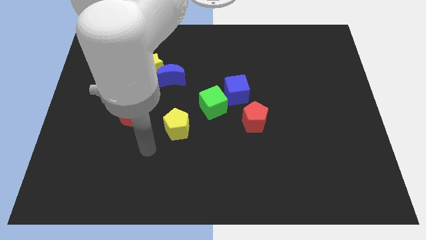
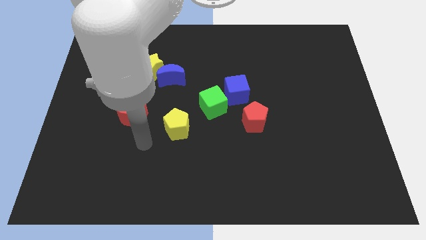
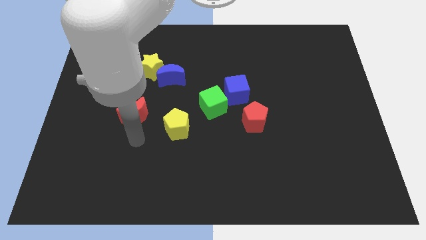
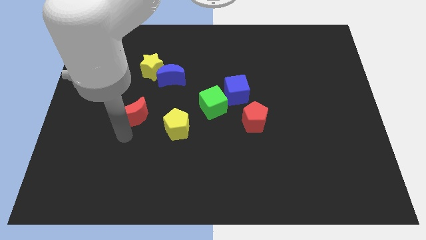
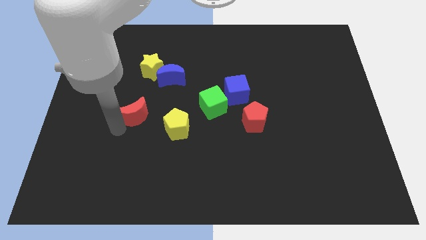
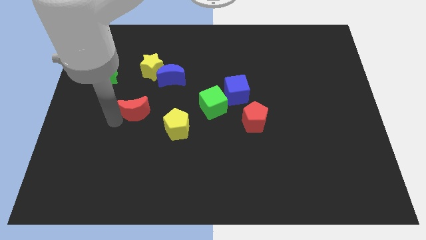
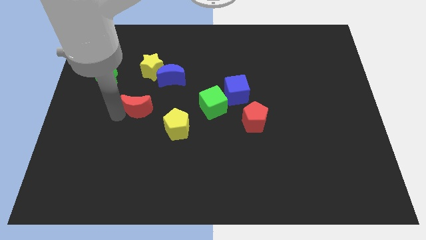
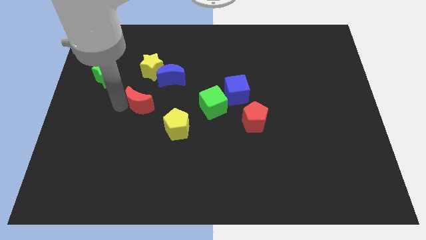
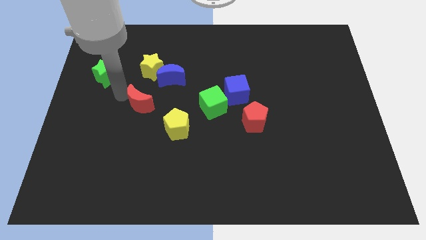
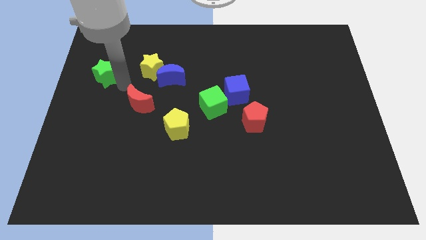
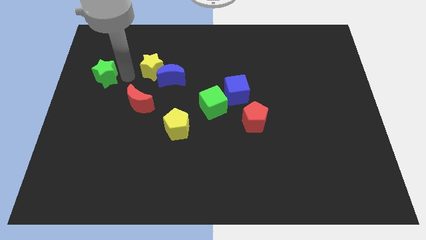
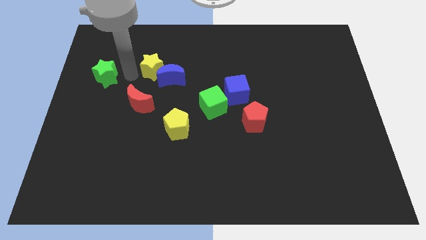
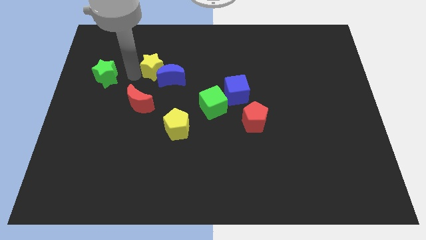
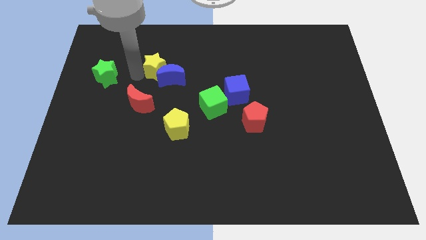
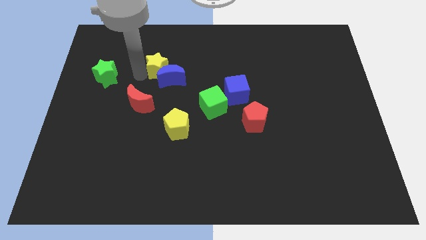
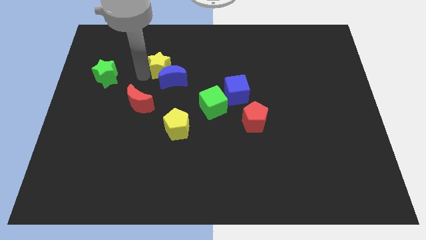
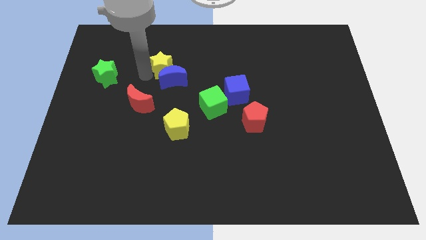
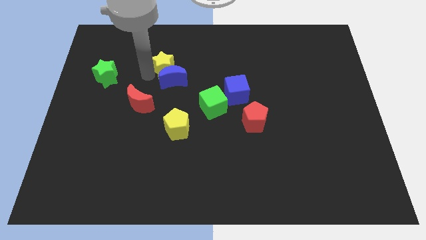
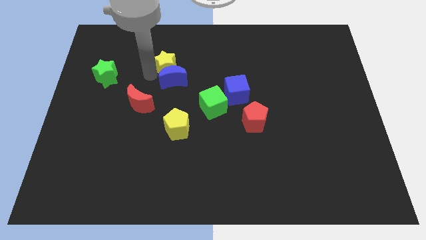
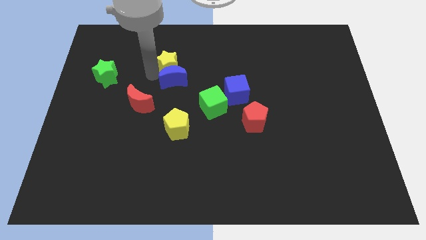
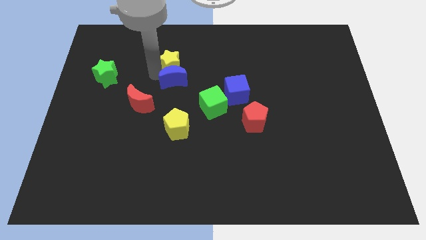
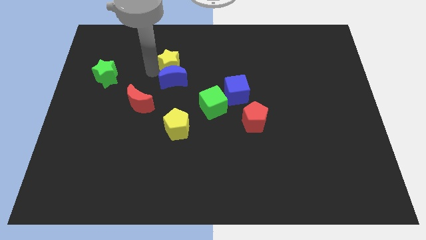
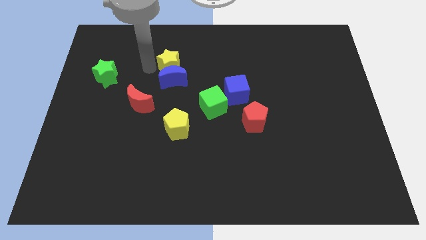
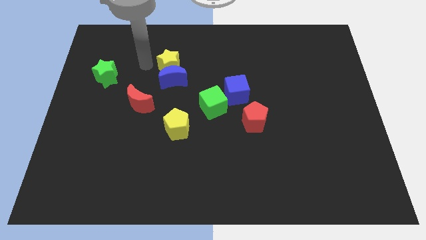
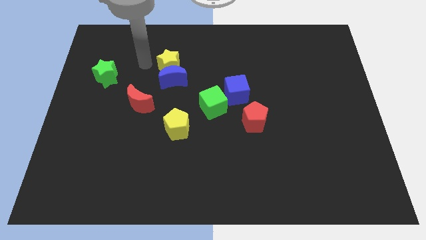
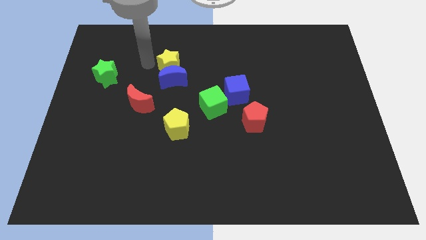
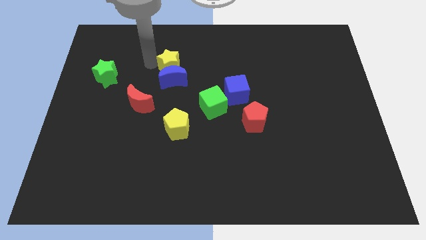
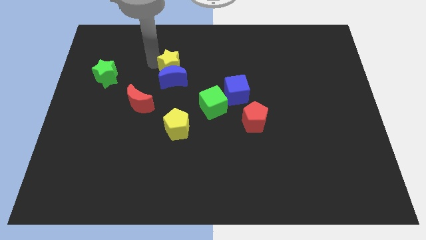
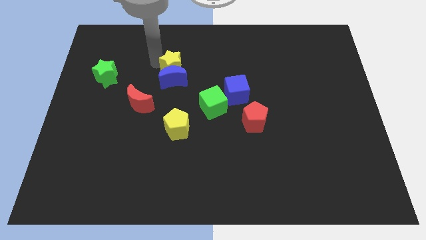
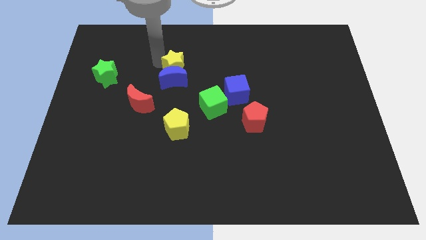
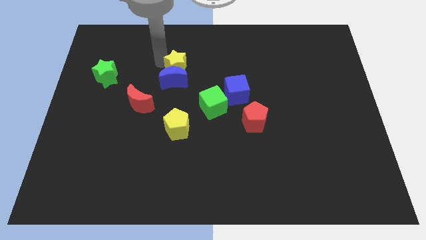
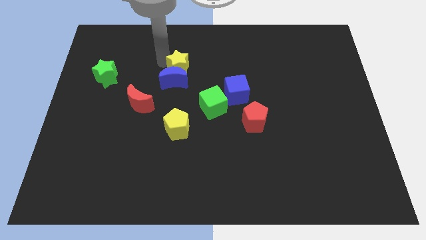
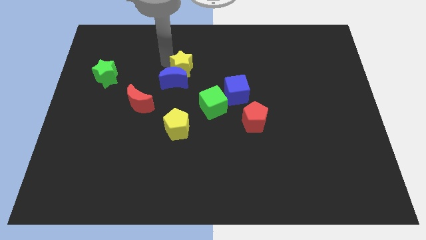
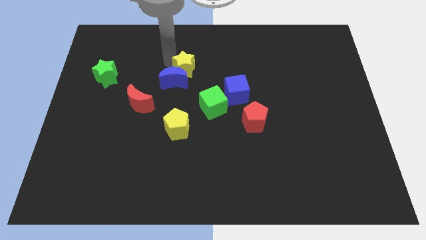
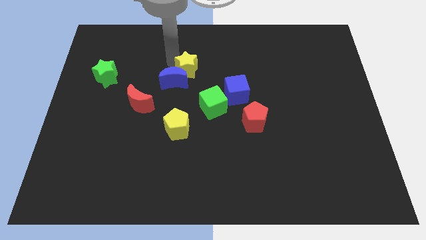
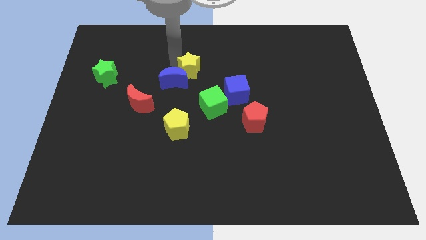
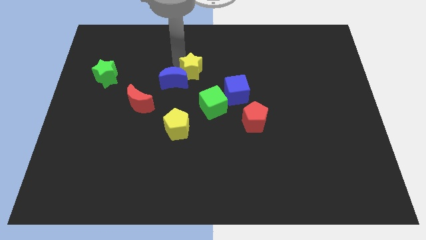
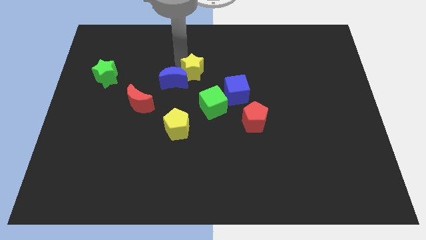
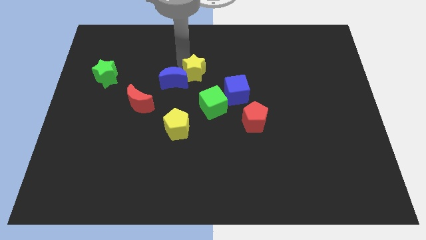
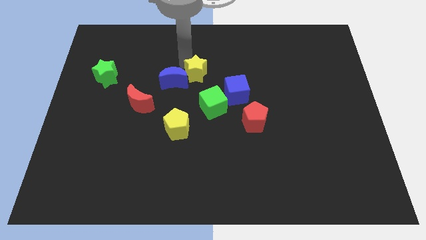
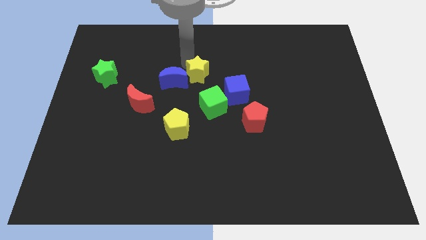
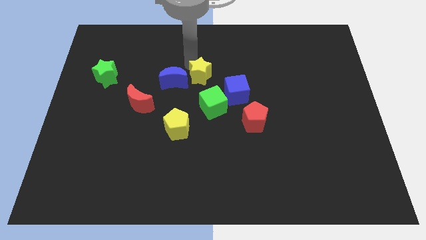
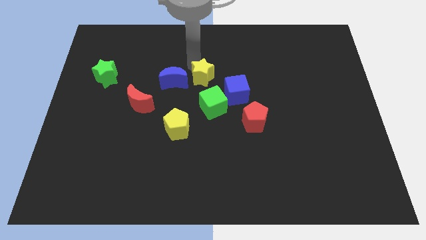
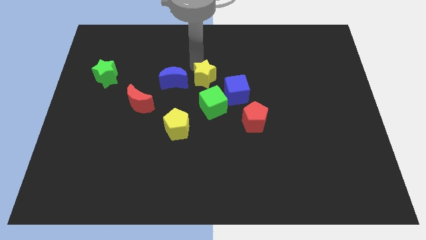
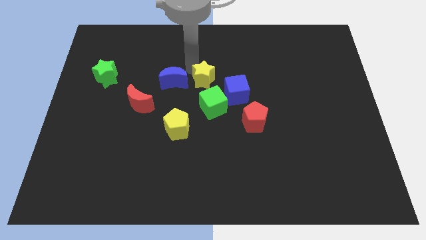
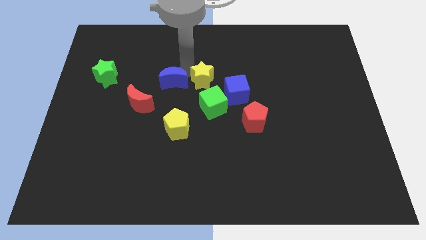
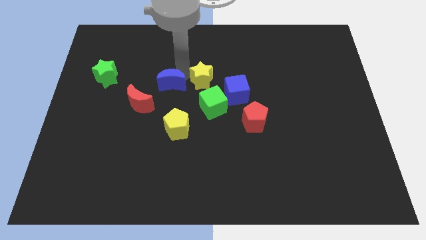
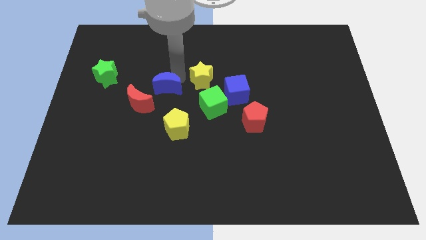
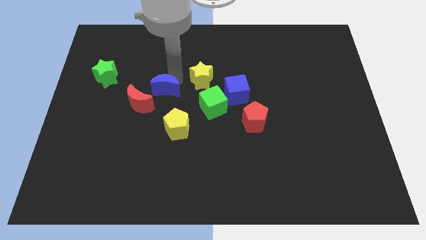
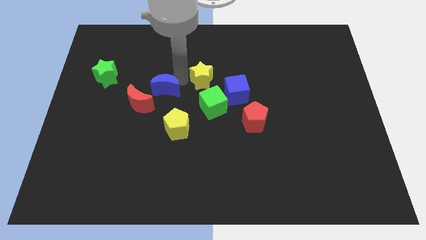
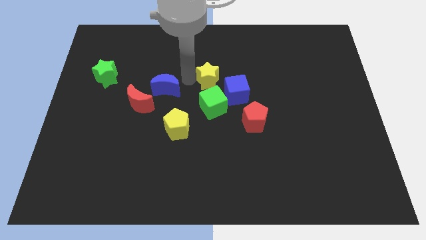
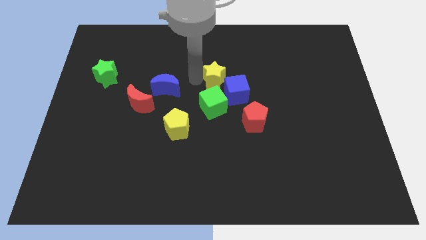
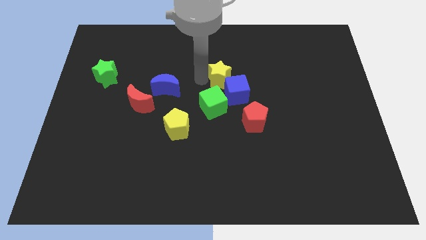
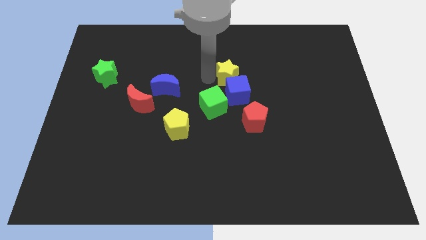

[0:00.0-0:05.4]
put the yellow star to the top right side of the green cube

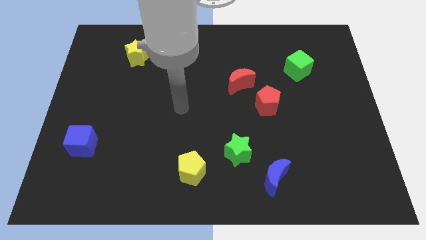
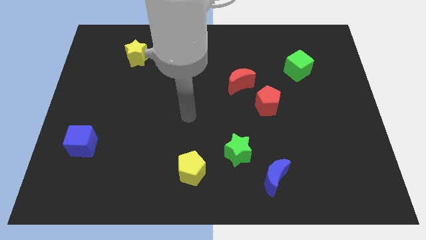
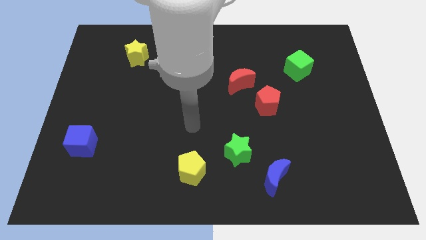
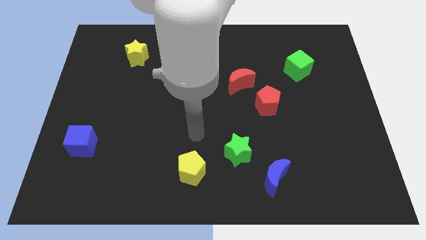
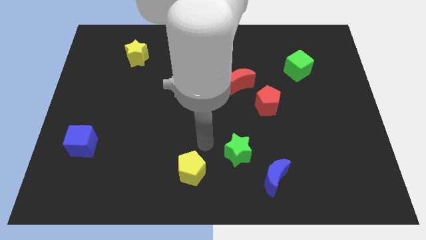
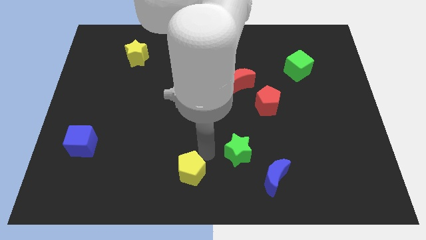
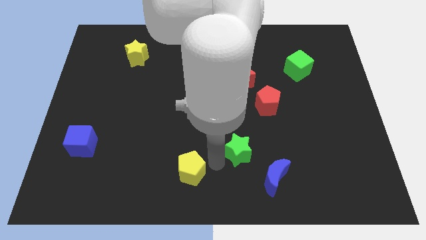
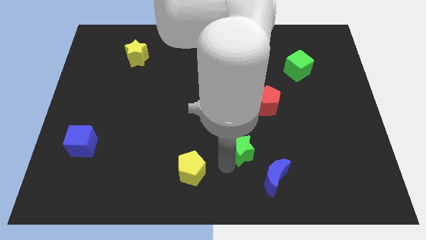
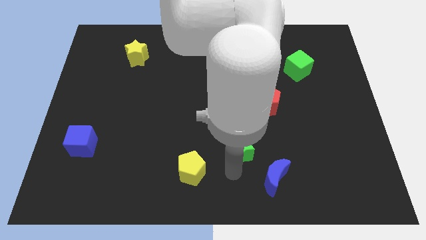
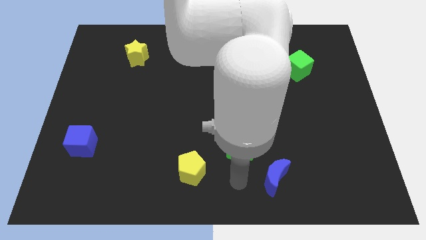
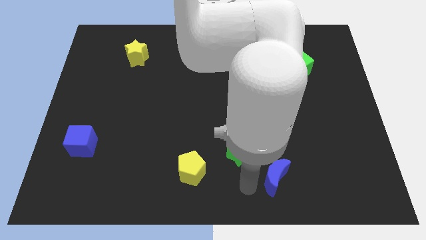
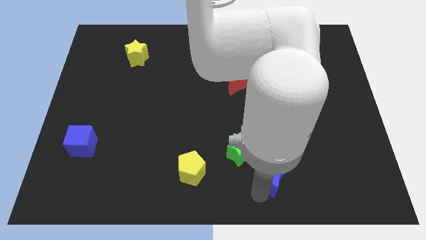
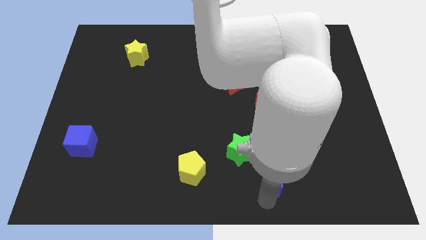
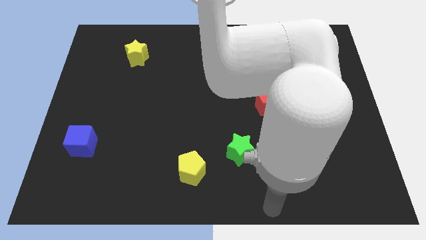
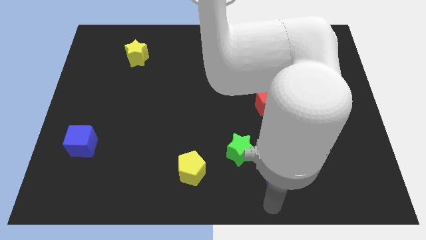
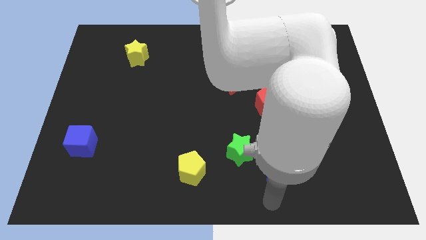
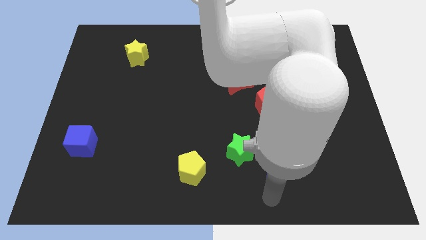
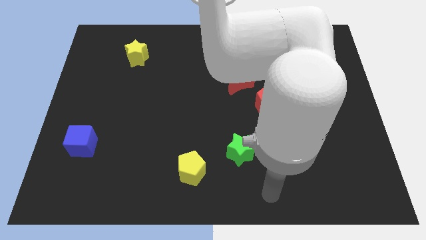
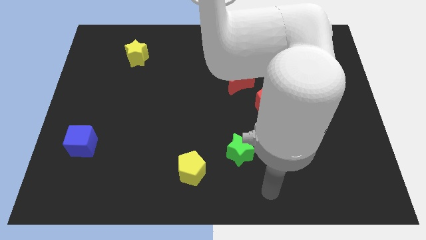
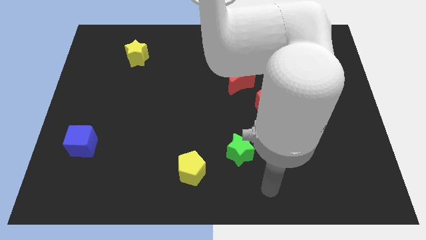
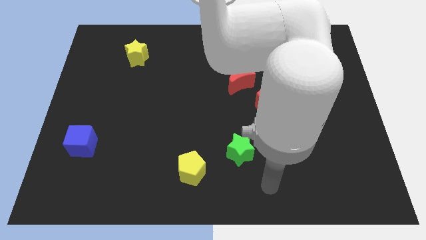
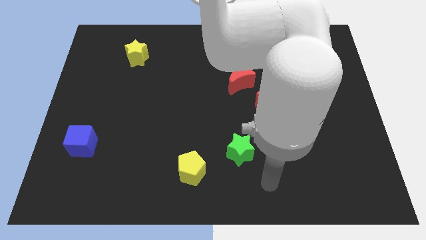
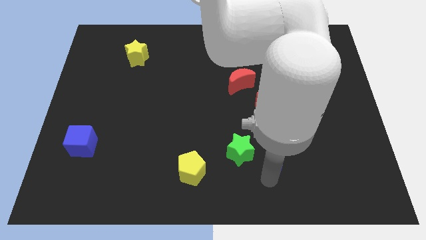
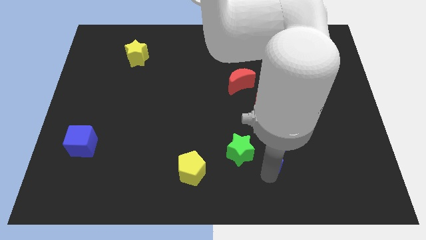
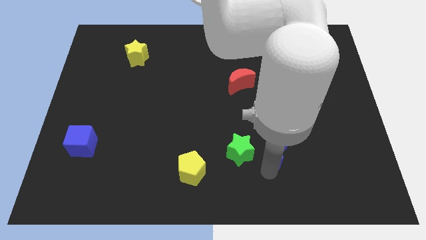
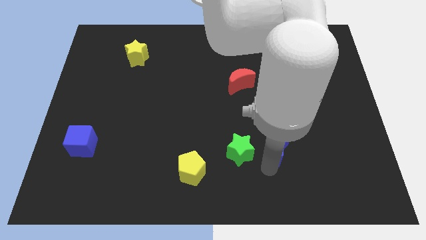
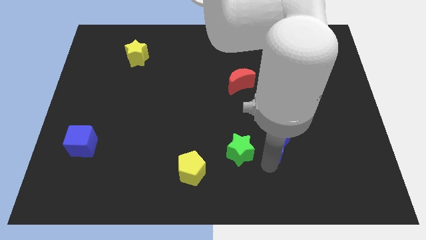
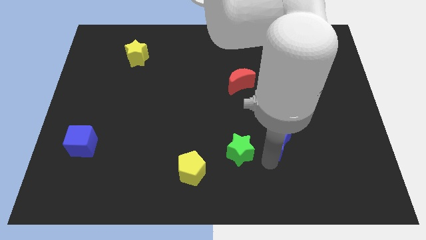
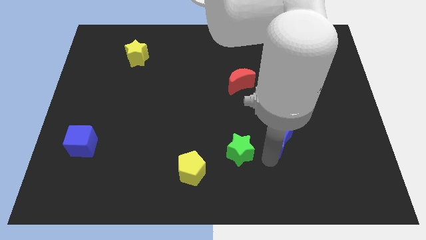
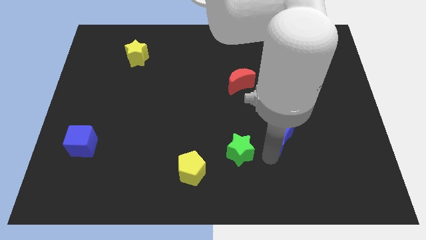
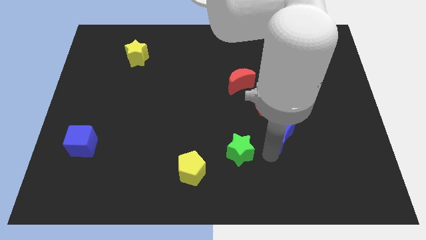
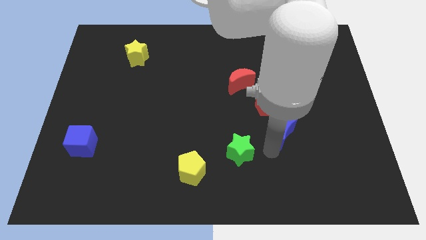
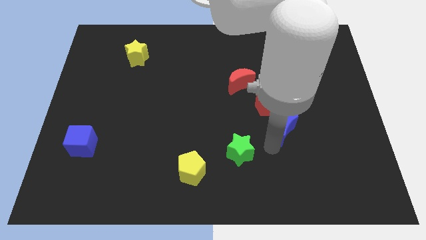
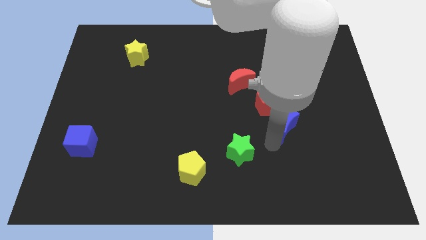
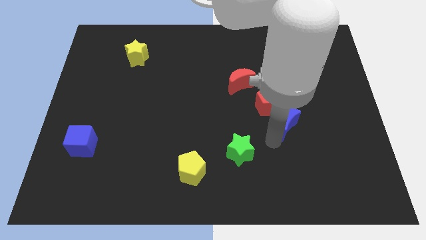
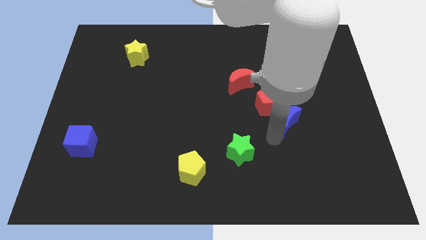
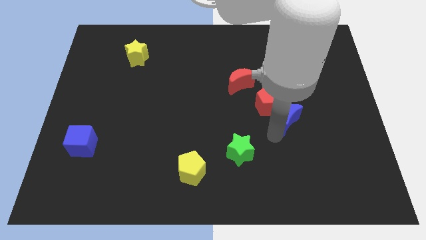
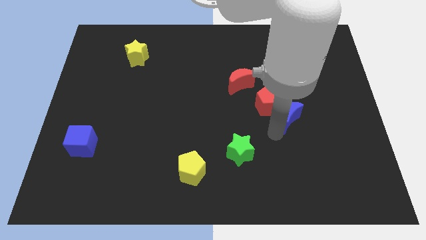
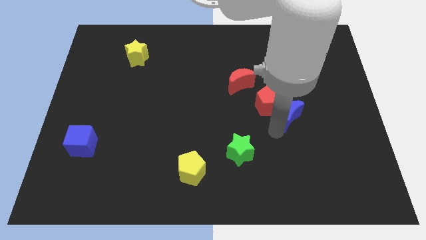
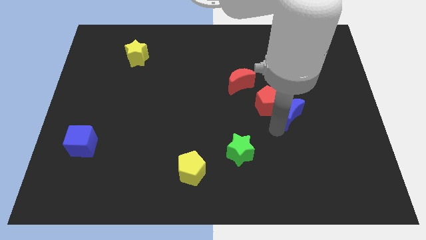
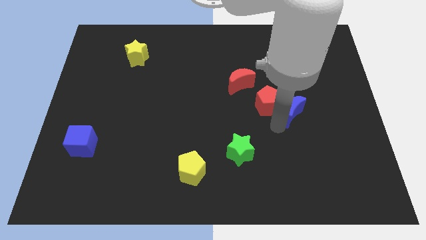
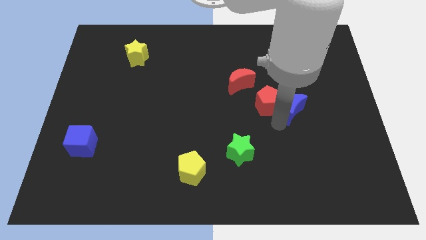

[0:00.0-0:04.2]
slide the blue moon to the top right of the red pentagon
